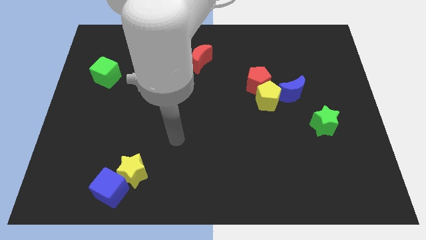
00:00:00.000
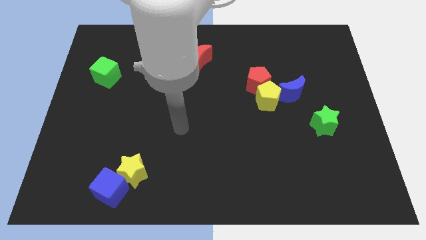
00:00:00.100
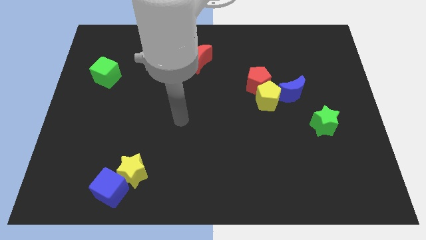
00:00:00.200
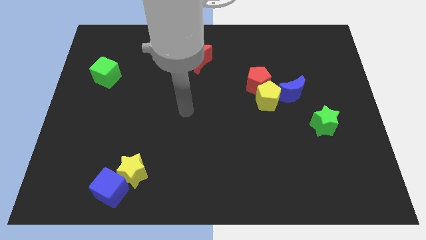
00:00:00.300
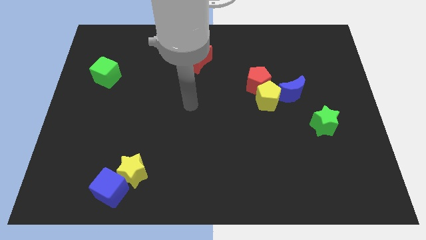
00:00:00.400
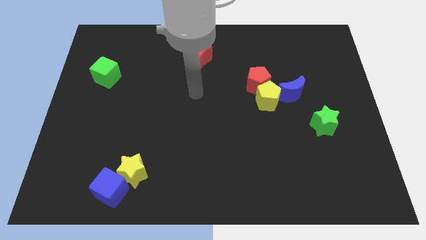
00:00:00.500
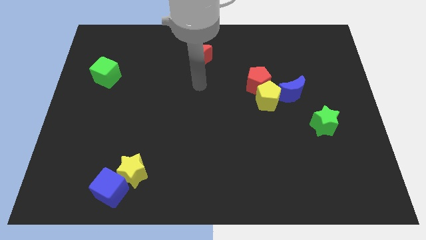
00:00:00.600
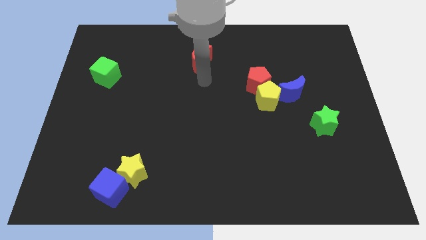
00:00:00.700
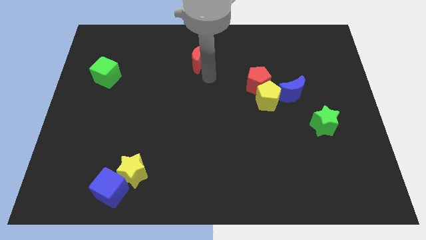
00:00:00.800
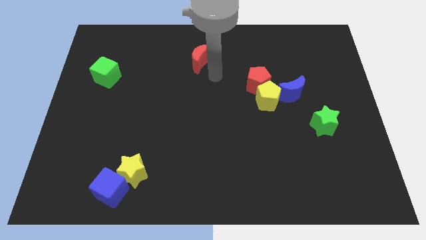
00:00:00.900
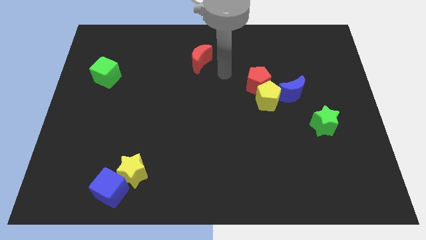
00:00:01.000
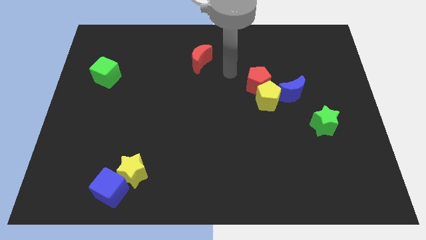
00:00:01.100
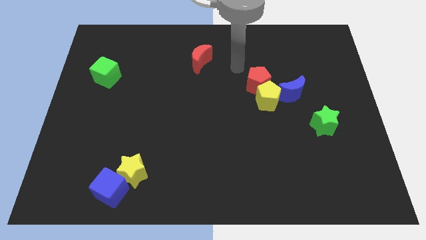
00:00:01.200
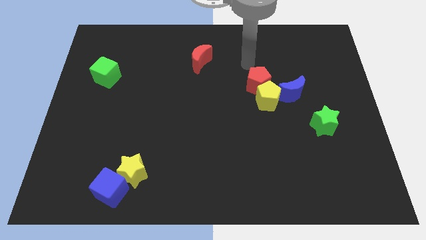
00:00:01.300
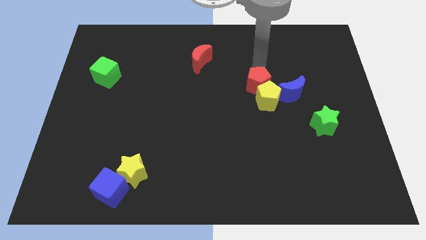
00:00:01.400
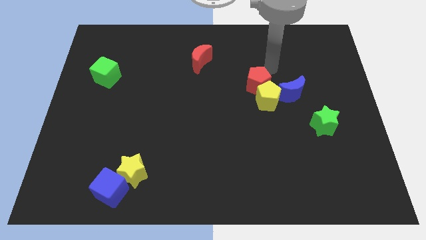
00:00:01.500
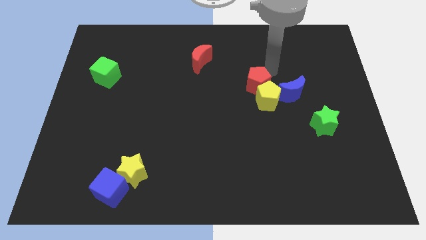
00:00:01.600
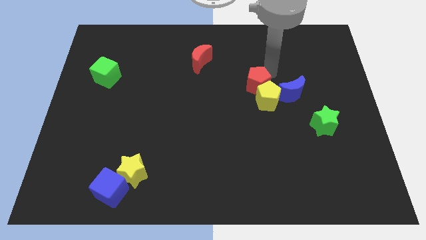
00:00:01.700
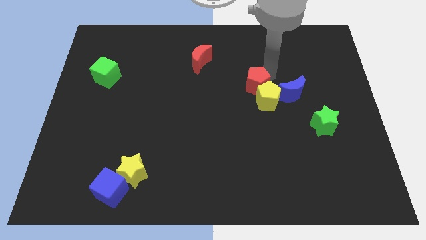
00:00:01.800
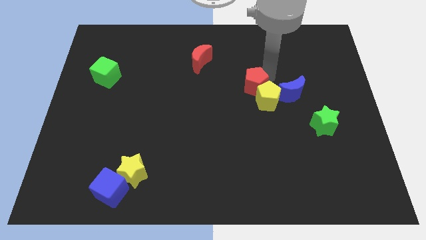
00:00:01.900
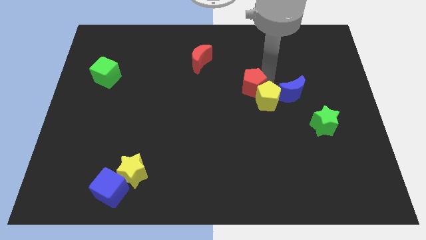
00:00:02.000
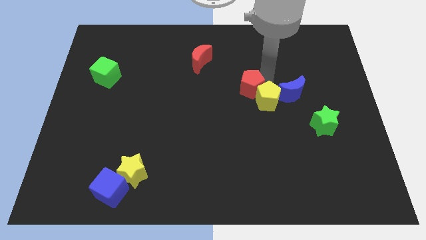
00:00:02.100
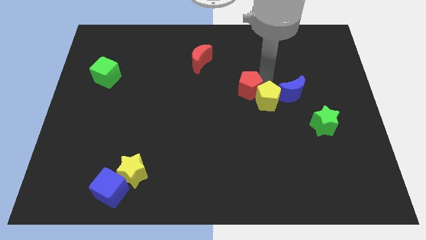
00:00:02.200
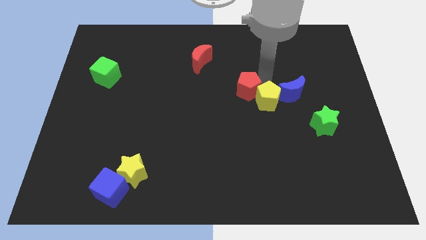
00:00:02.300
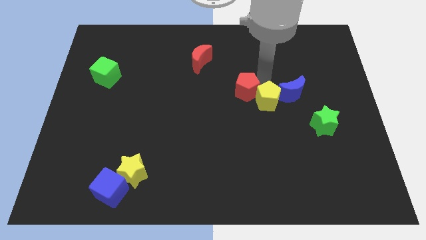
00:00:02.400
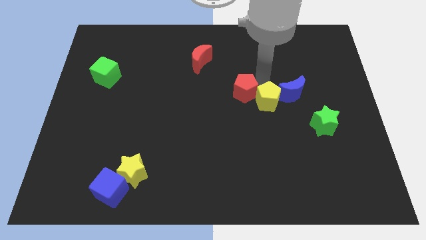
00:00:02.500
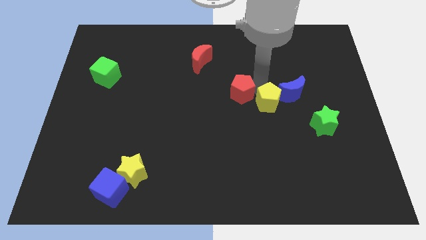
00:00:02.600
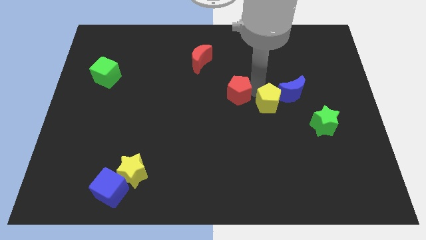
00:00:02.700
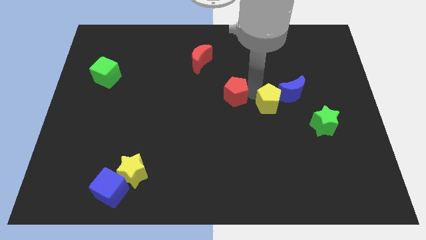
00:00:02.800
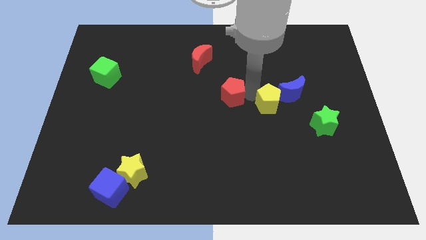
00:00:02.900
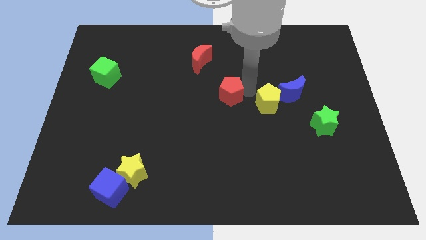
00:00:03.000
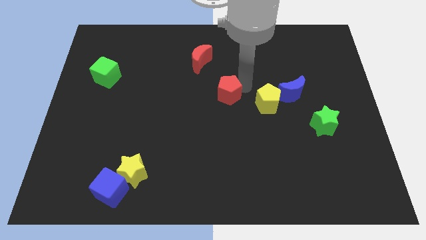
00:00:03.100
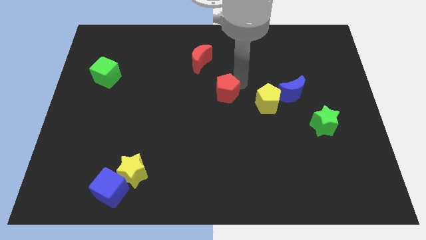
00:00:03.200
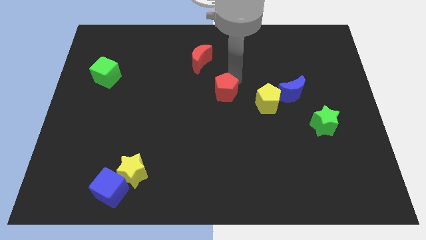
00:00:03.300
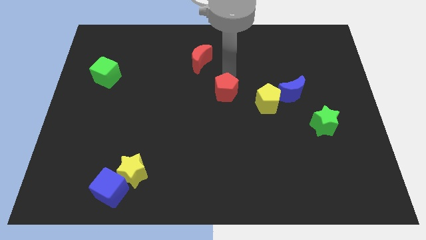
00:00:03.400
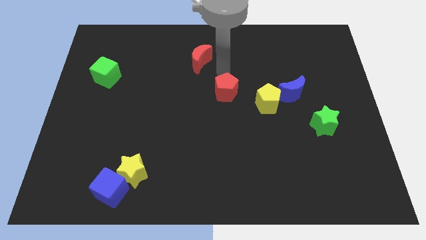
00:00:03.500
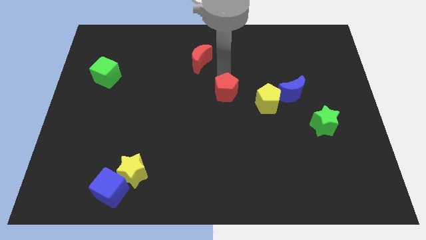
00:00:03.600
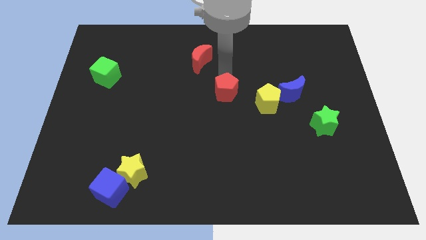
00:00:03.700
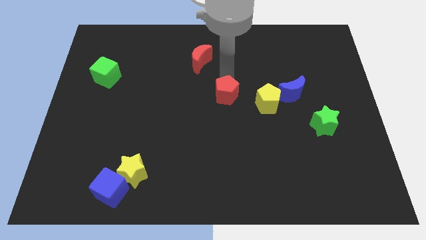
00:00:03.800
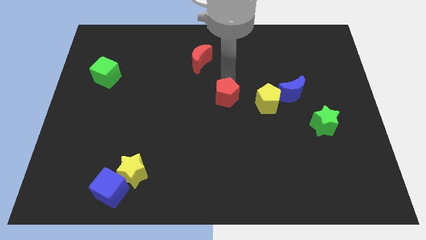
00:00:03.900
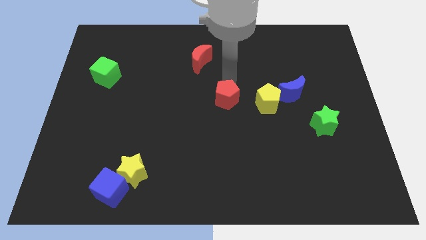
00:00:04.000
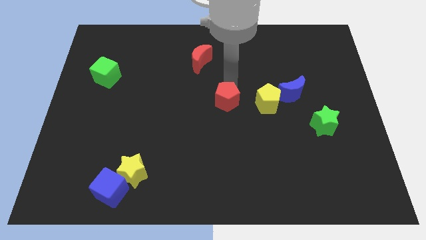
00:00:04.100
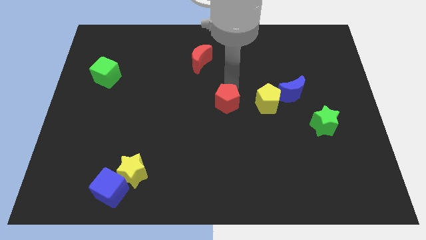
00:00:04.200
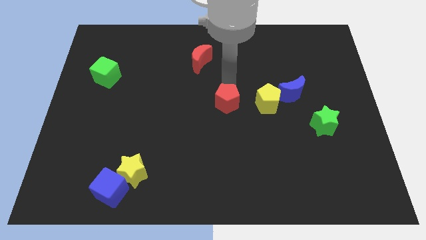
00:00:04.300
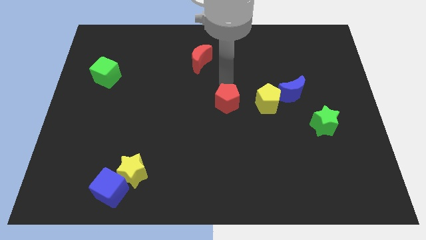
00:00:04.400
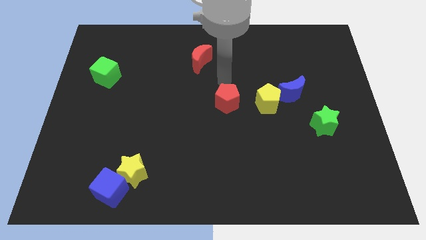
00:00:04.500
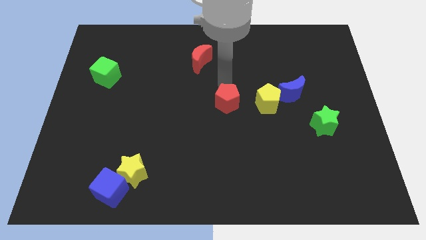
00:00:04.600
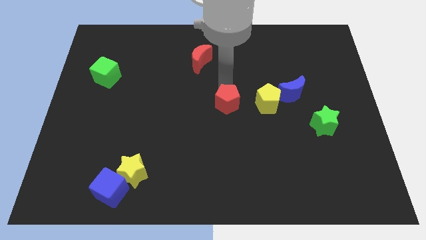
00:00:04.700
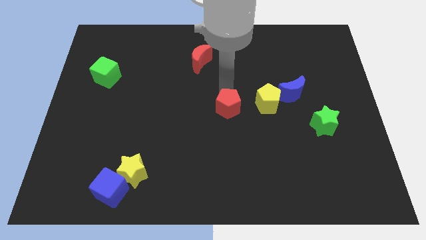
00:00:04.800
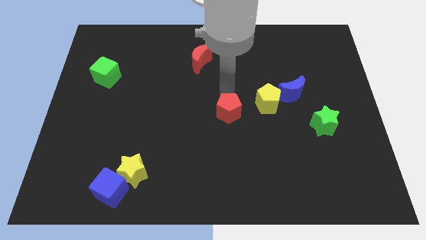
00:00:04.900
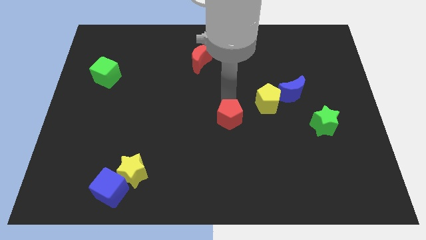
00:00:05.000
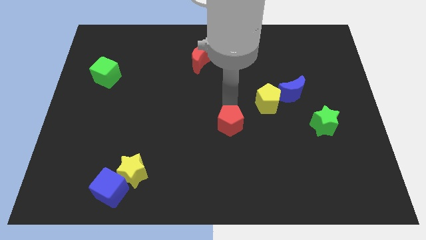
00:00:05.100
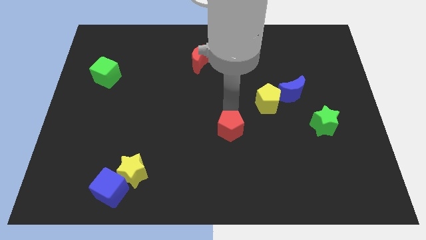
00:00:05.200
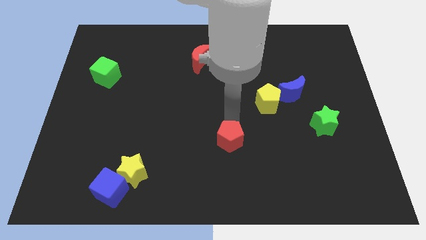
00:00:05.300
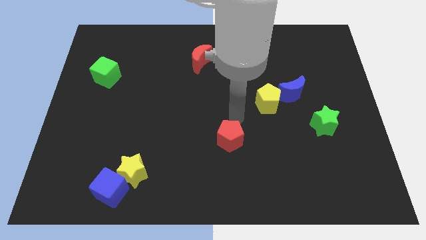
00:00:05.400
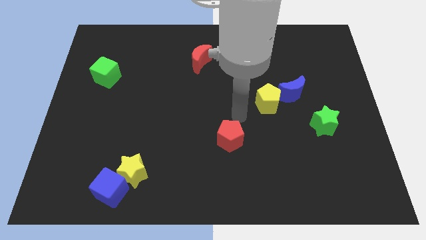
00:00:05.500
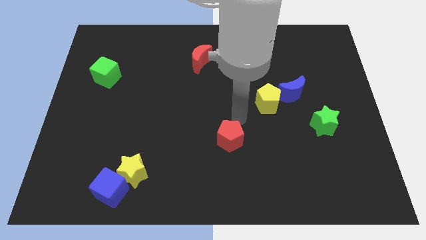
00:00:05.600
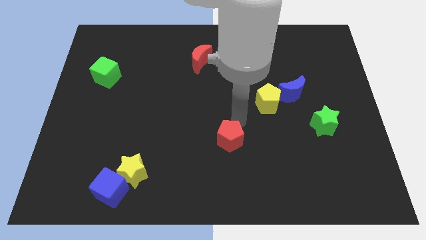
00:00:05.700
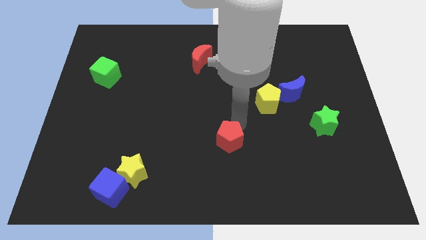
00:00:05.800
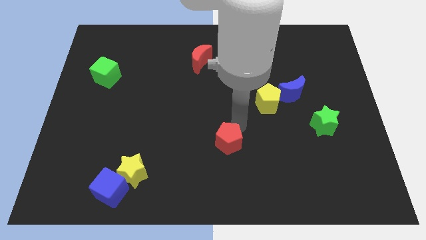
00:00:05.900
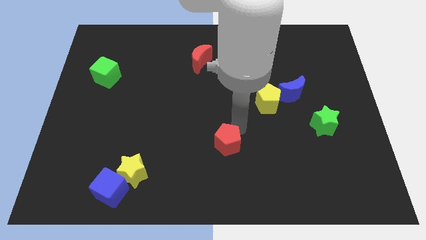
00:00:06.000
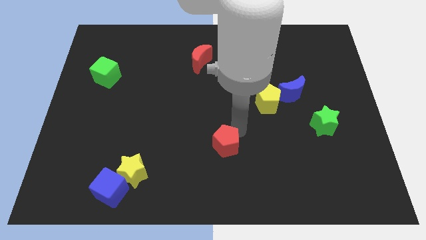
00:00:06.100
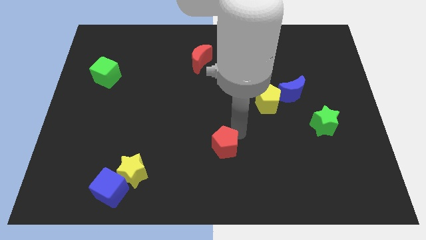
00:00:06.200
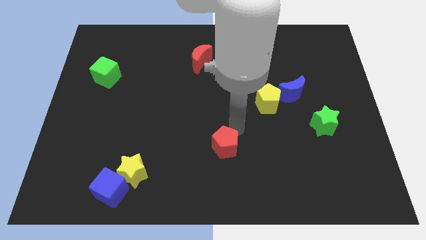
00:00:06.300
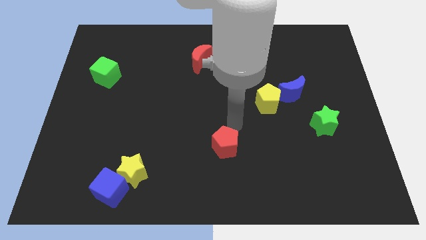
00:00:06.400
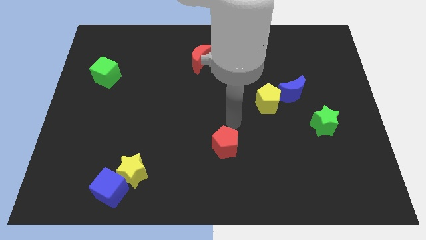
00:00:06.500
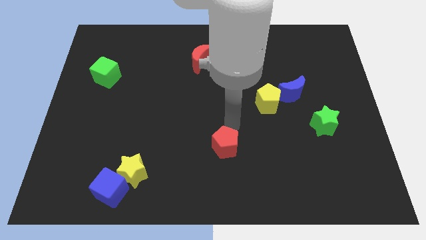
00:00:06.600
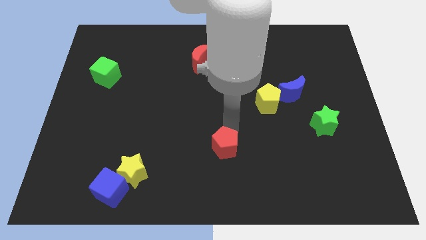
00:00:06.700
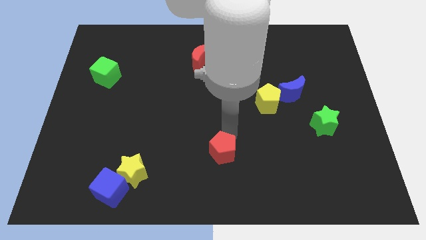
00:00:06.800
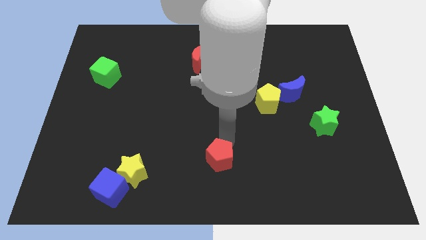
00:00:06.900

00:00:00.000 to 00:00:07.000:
slide the red pentagon to the bottom

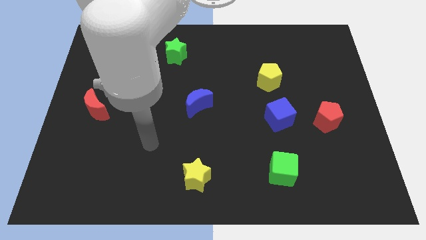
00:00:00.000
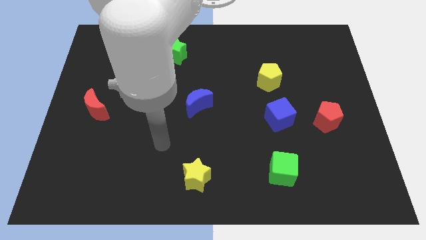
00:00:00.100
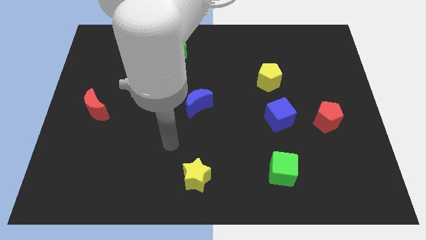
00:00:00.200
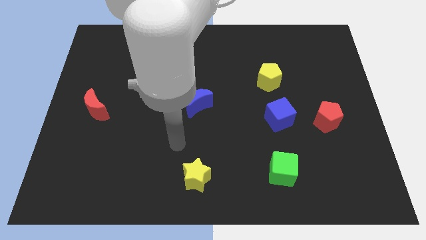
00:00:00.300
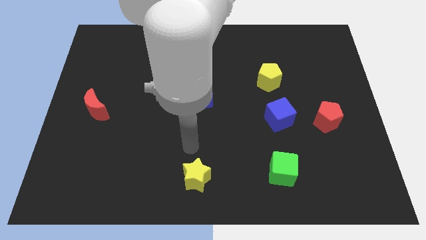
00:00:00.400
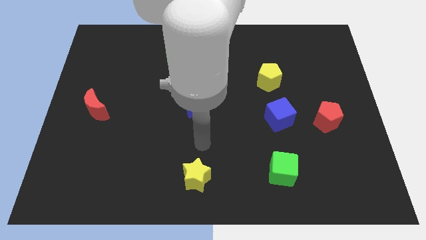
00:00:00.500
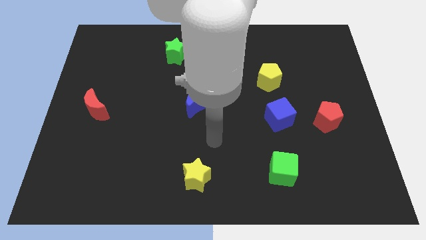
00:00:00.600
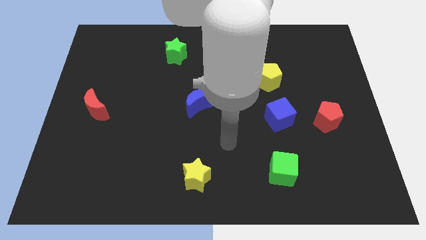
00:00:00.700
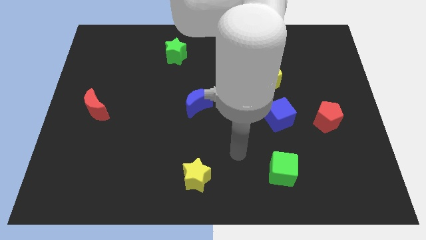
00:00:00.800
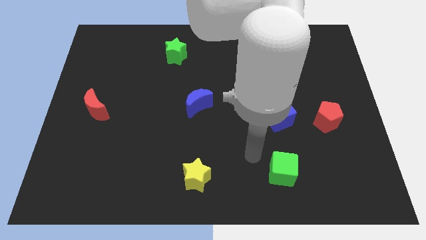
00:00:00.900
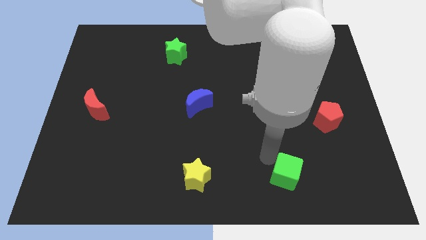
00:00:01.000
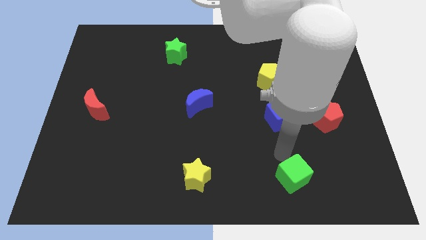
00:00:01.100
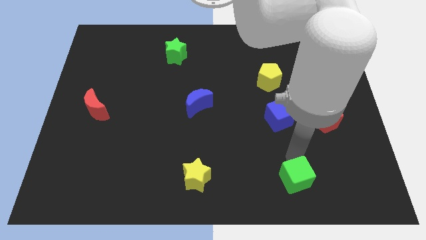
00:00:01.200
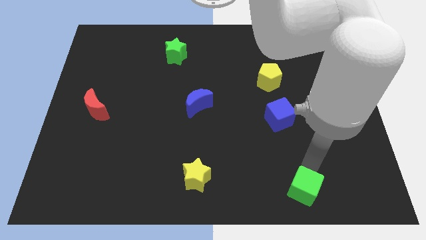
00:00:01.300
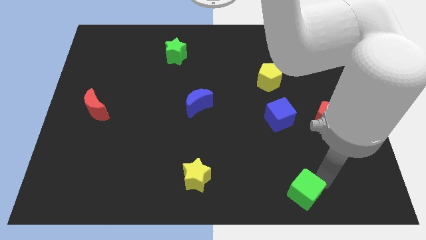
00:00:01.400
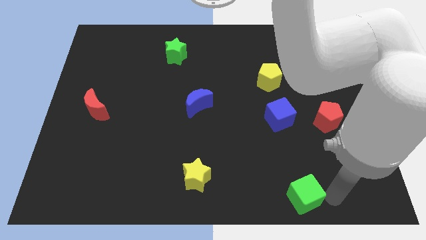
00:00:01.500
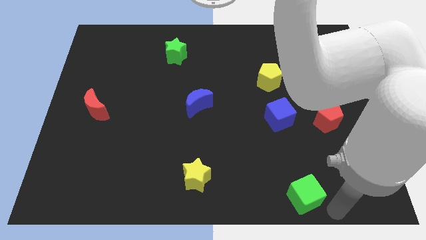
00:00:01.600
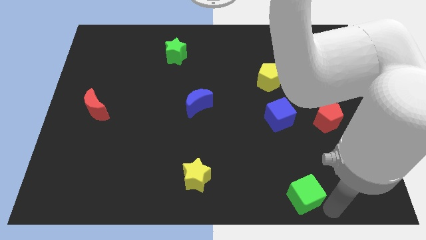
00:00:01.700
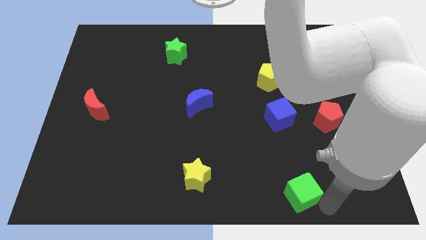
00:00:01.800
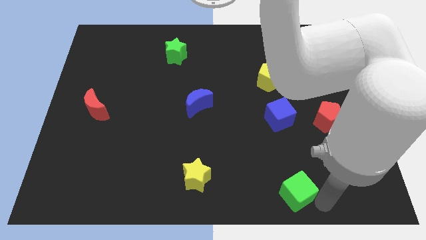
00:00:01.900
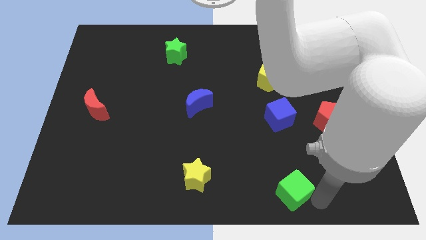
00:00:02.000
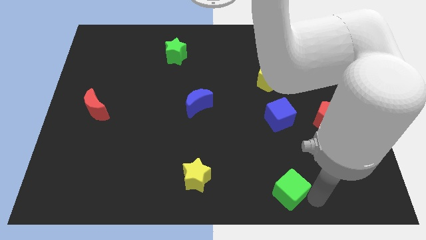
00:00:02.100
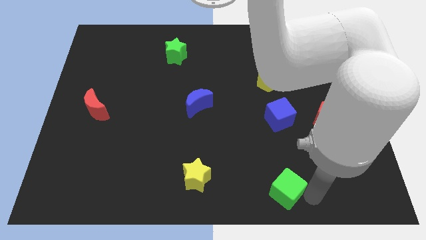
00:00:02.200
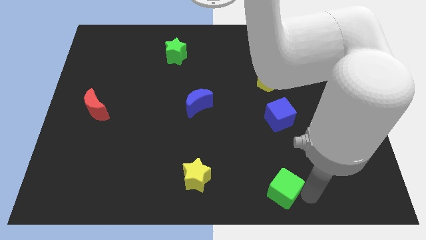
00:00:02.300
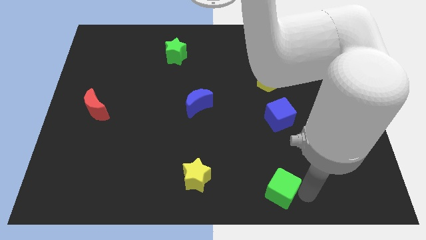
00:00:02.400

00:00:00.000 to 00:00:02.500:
put the green cube to the bottom
